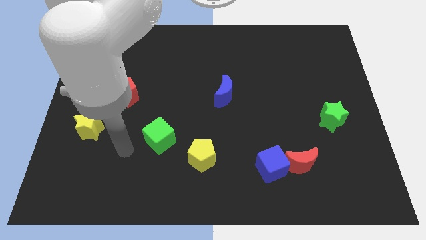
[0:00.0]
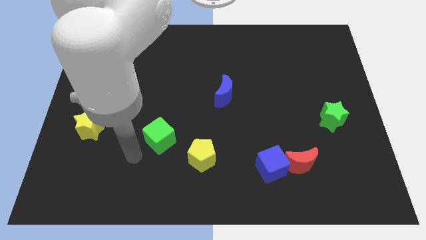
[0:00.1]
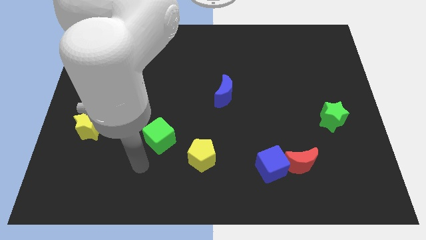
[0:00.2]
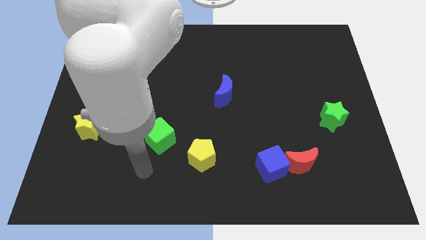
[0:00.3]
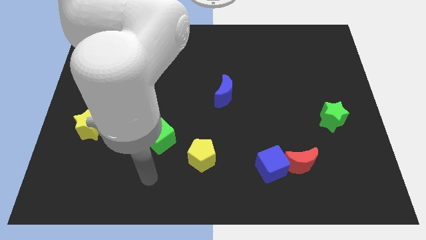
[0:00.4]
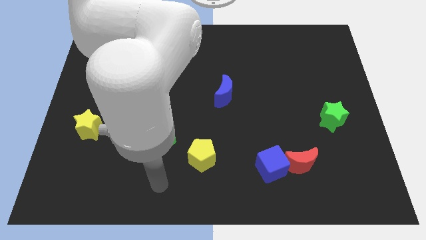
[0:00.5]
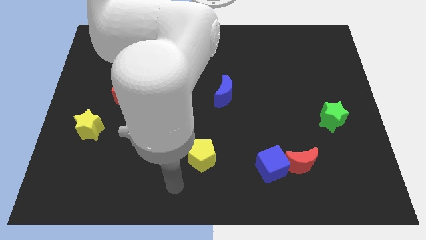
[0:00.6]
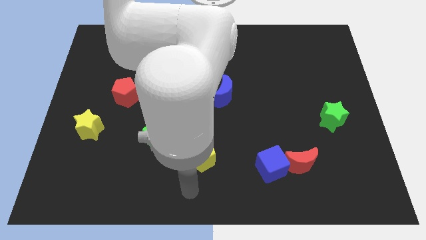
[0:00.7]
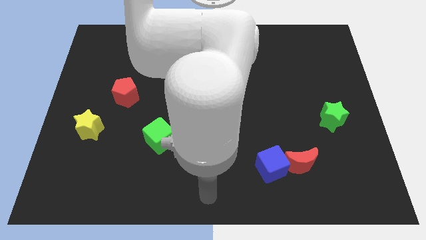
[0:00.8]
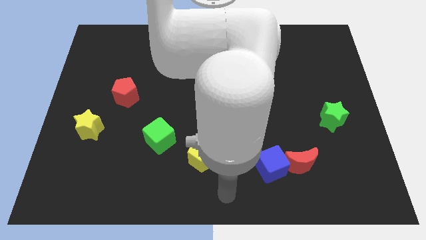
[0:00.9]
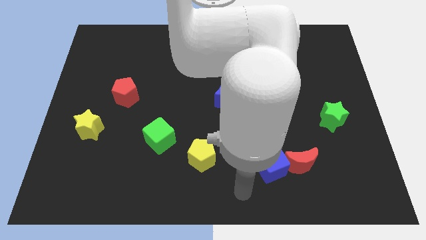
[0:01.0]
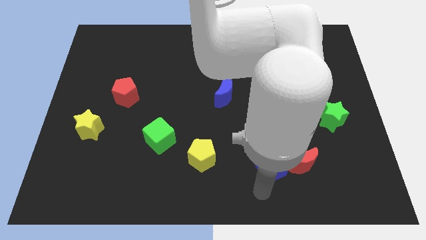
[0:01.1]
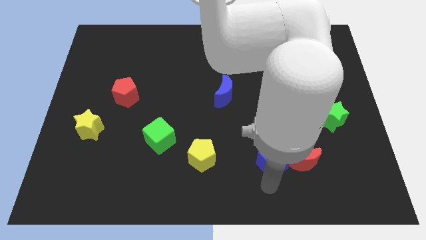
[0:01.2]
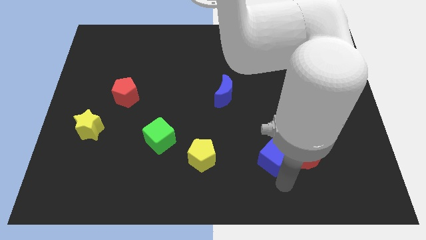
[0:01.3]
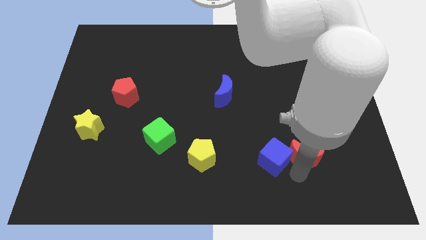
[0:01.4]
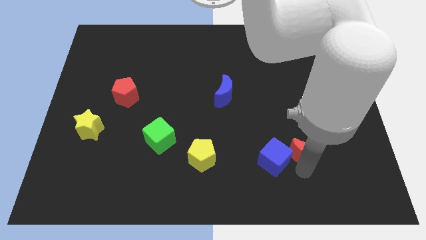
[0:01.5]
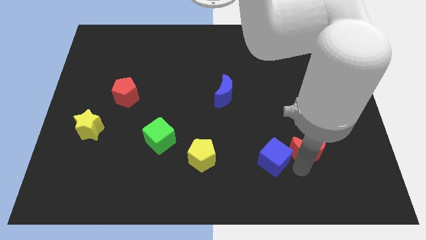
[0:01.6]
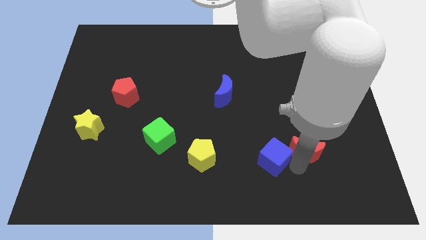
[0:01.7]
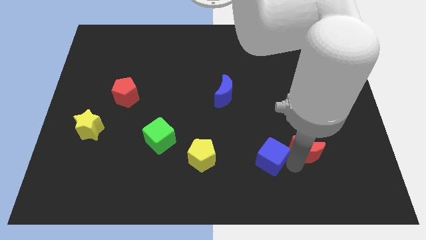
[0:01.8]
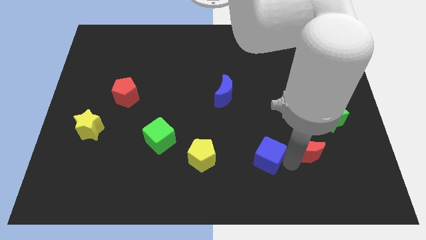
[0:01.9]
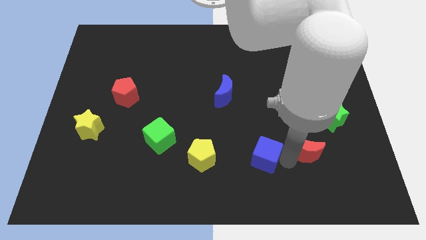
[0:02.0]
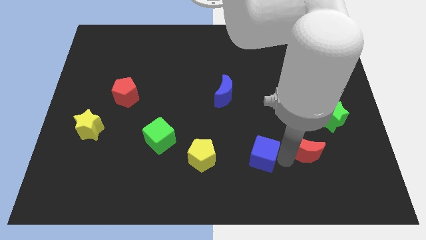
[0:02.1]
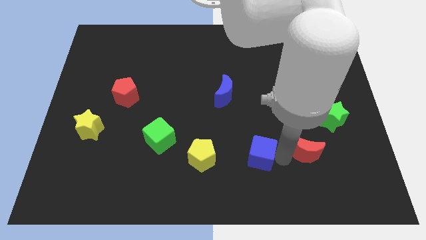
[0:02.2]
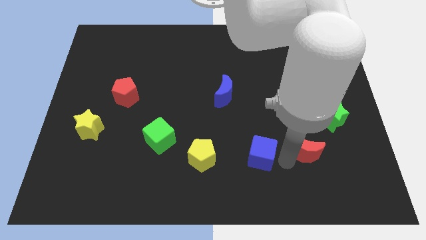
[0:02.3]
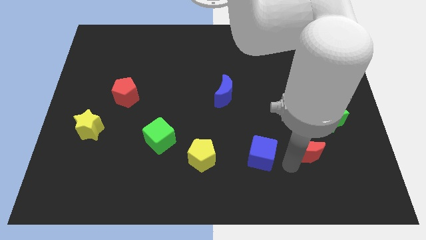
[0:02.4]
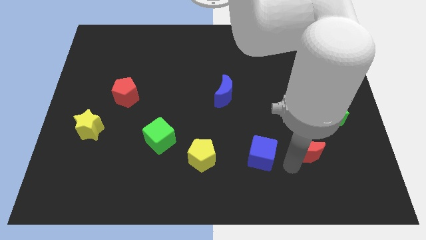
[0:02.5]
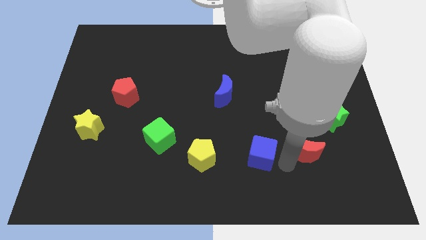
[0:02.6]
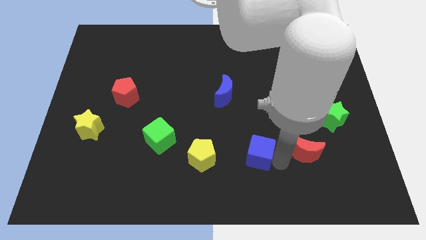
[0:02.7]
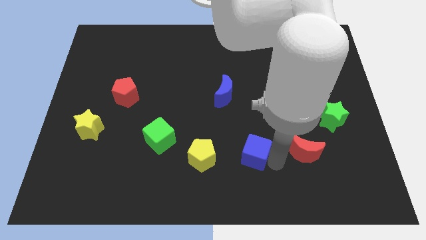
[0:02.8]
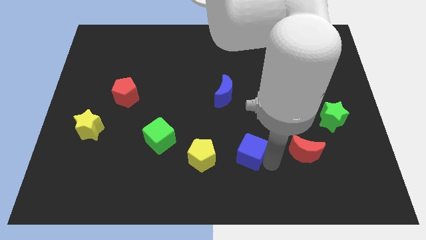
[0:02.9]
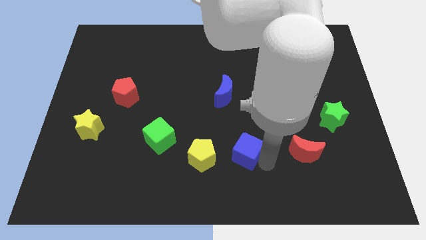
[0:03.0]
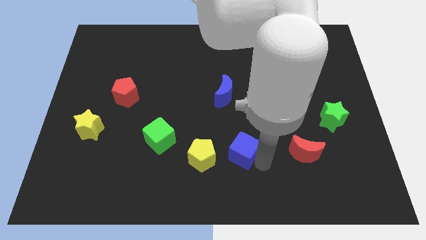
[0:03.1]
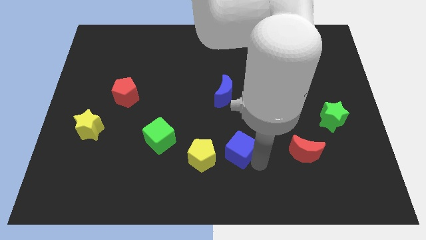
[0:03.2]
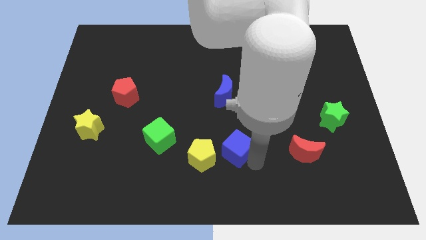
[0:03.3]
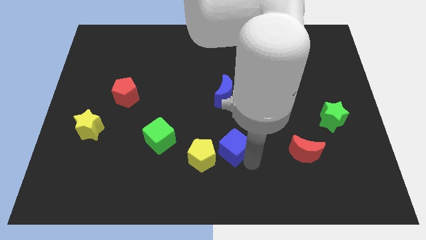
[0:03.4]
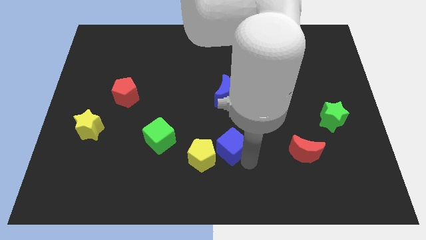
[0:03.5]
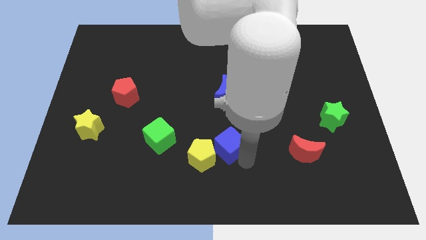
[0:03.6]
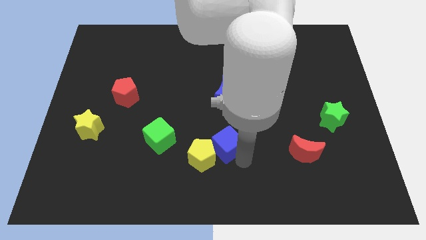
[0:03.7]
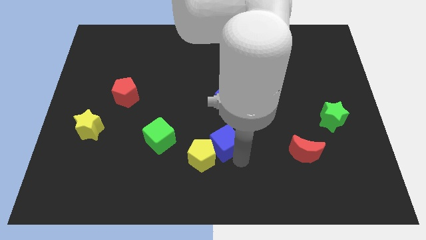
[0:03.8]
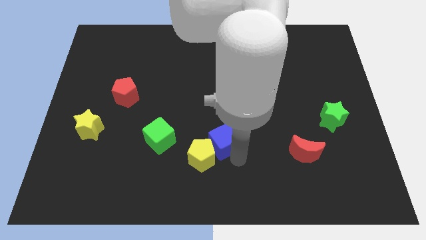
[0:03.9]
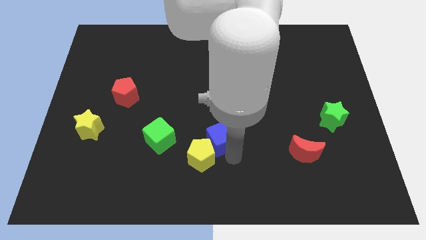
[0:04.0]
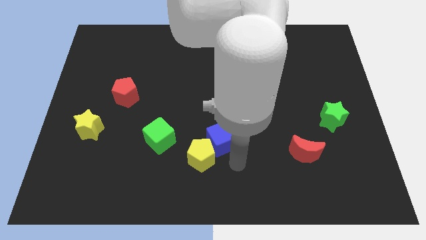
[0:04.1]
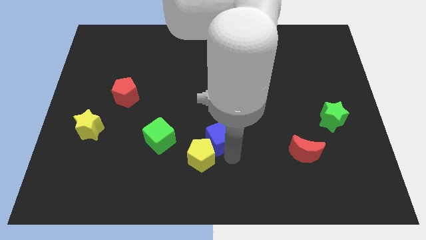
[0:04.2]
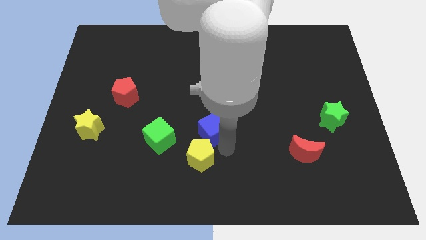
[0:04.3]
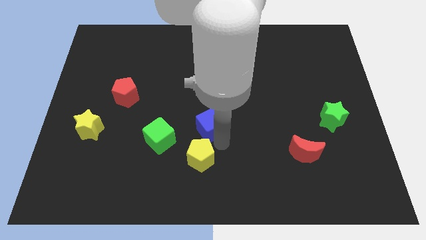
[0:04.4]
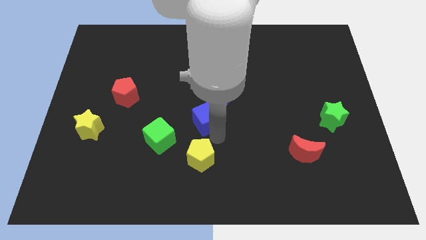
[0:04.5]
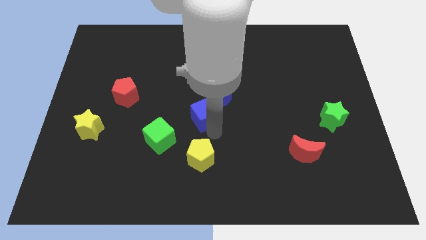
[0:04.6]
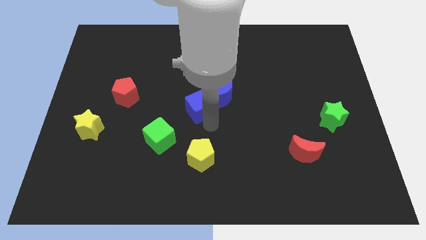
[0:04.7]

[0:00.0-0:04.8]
move the blue cube up and to the left

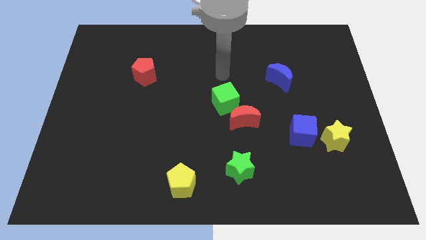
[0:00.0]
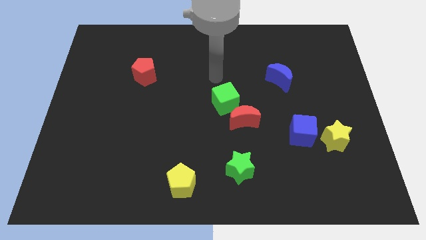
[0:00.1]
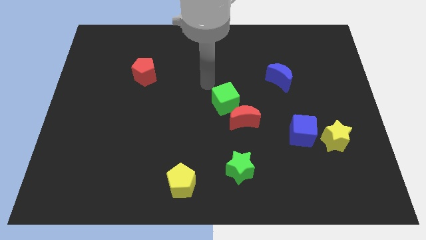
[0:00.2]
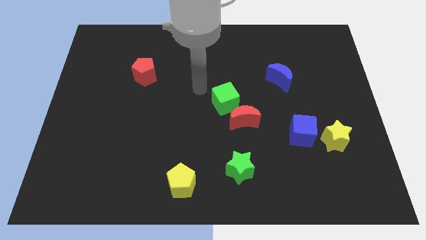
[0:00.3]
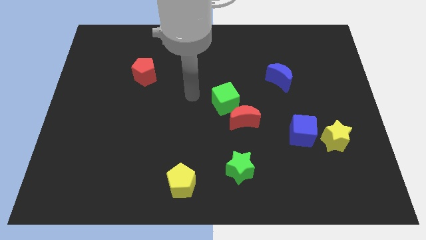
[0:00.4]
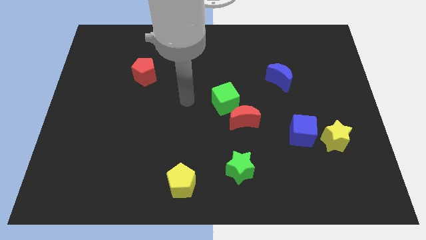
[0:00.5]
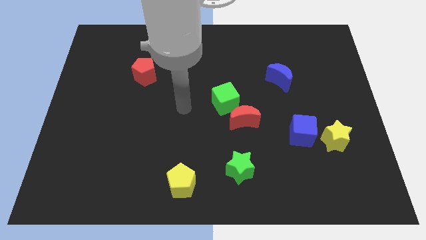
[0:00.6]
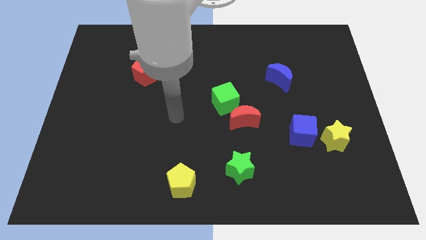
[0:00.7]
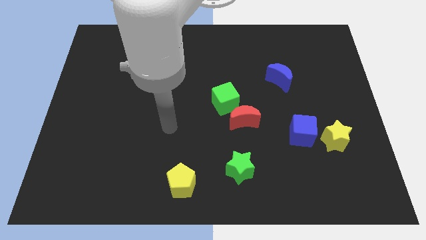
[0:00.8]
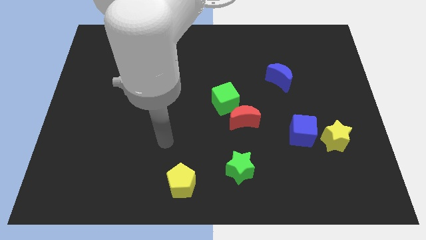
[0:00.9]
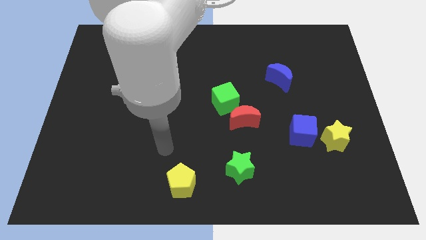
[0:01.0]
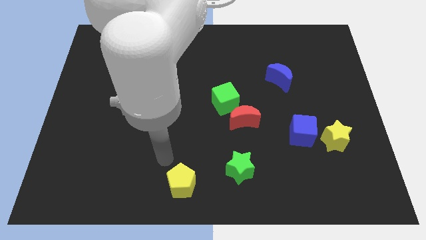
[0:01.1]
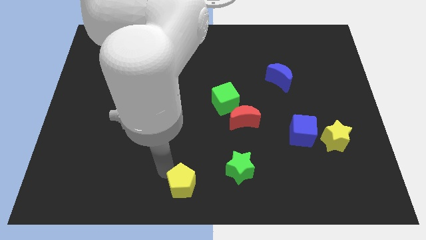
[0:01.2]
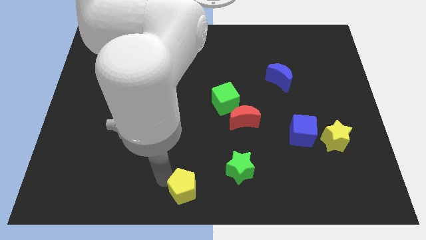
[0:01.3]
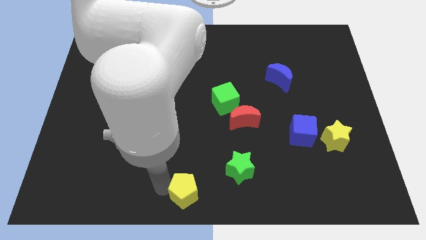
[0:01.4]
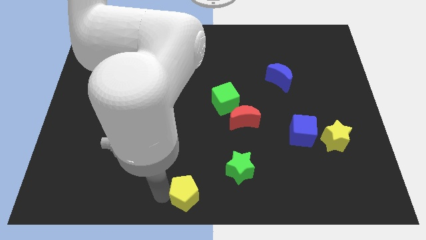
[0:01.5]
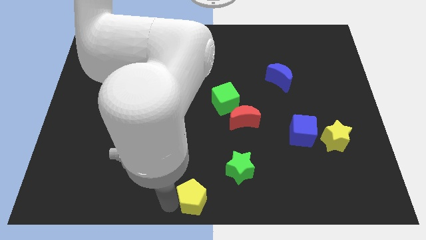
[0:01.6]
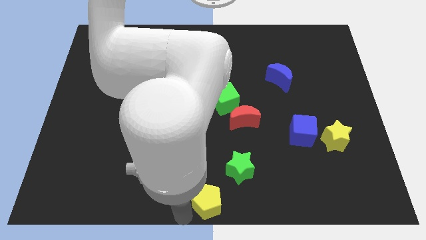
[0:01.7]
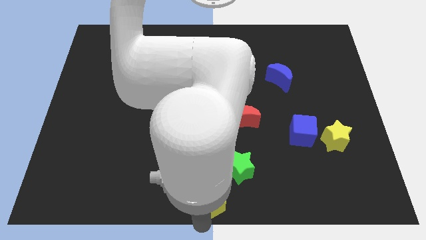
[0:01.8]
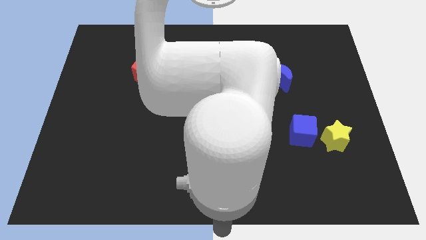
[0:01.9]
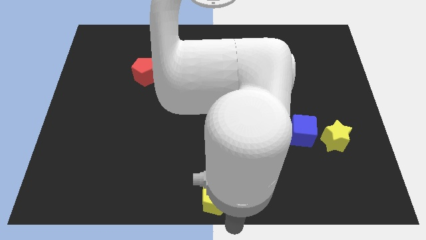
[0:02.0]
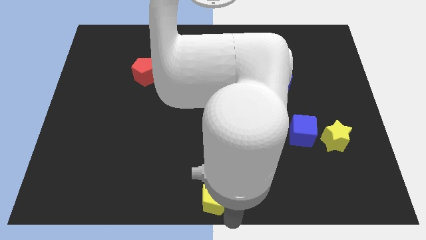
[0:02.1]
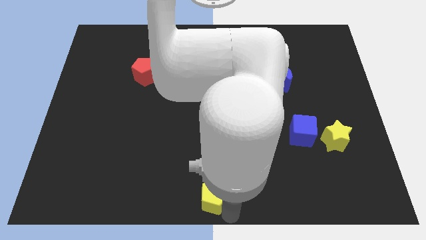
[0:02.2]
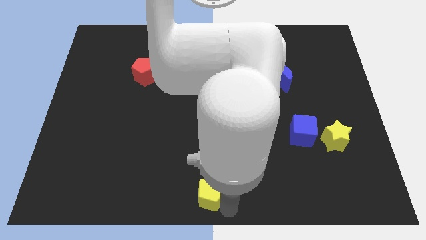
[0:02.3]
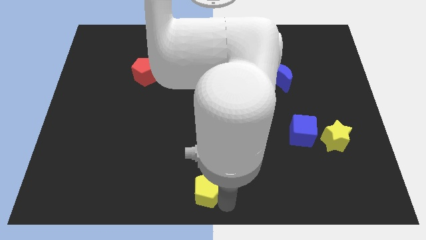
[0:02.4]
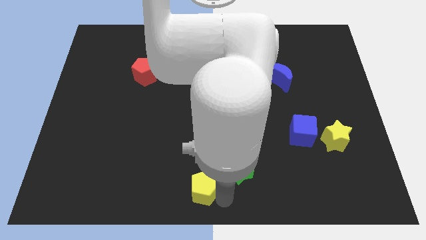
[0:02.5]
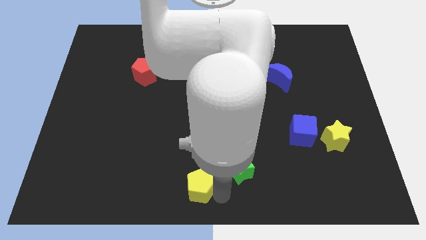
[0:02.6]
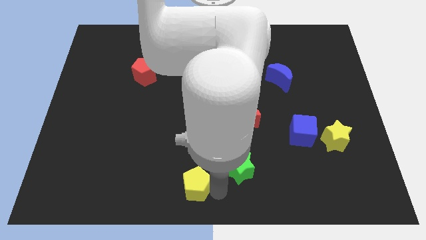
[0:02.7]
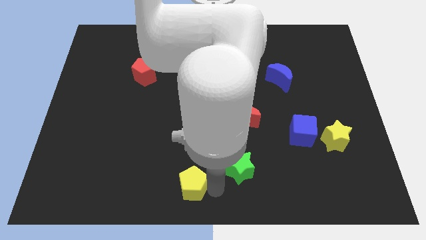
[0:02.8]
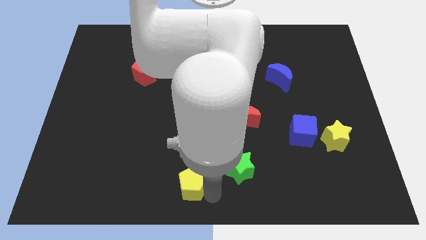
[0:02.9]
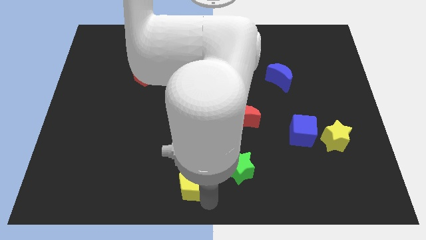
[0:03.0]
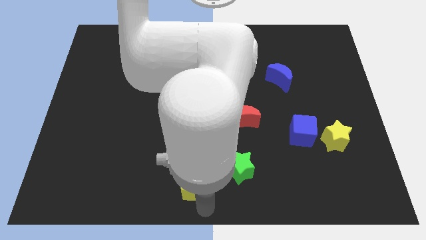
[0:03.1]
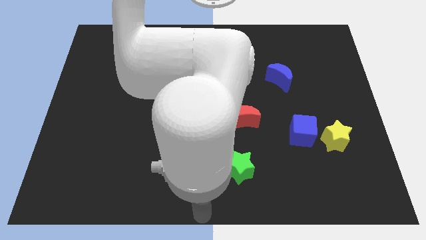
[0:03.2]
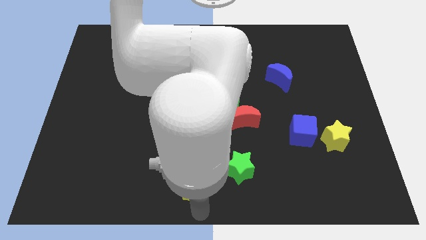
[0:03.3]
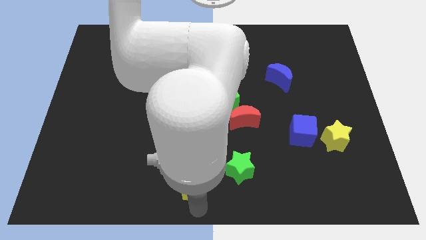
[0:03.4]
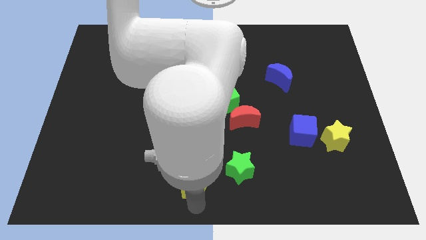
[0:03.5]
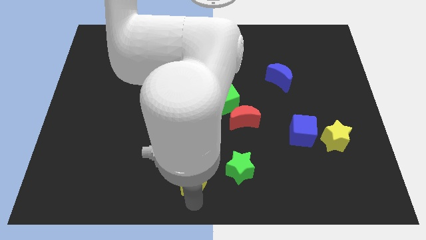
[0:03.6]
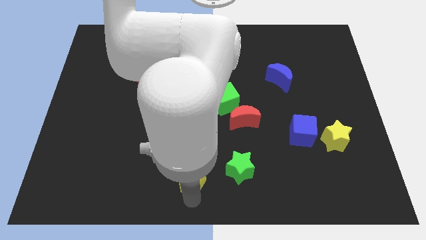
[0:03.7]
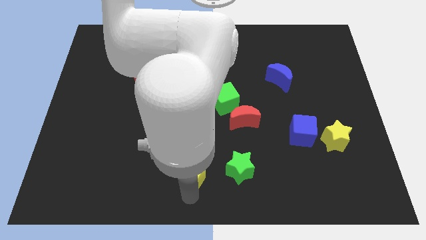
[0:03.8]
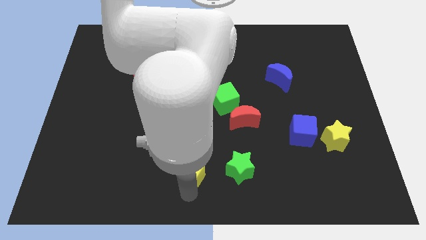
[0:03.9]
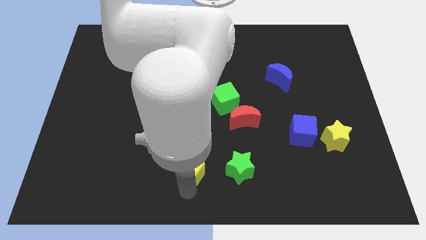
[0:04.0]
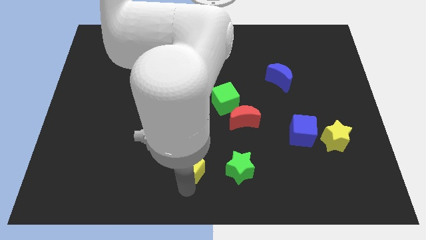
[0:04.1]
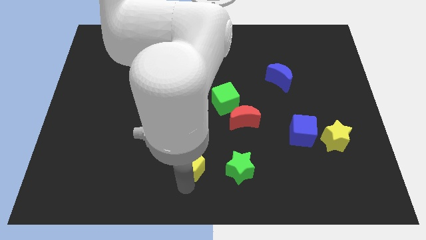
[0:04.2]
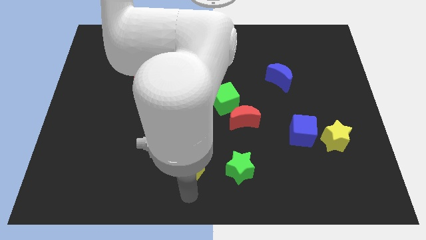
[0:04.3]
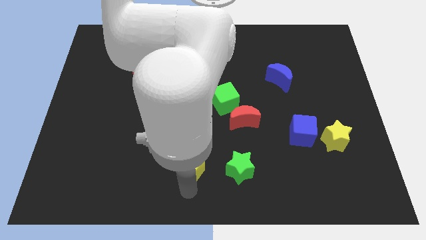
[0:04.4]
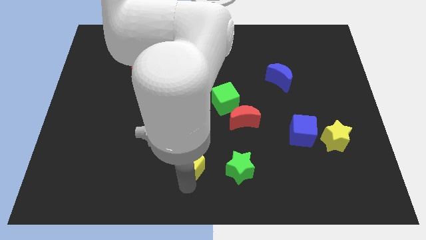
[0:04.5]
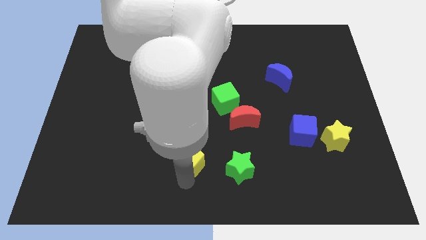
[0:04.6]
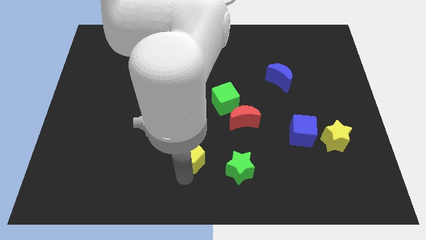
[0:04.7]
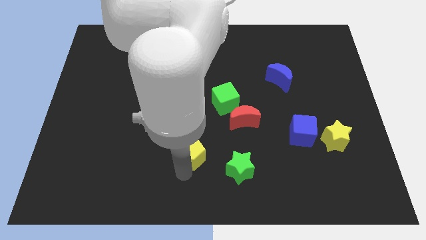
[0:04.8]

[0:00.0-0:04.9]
move the yellow pentagon upwards somewhat
